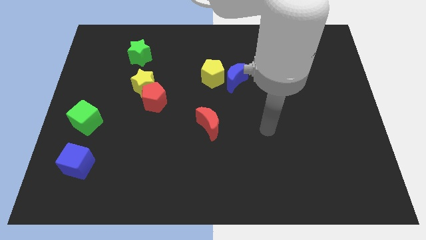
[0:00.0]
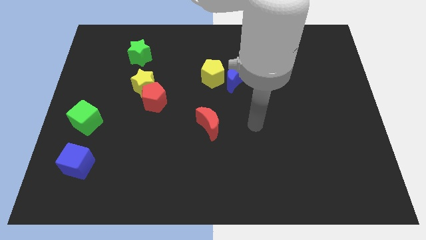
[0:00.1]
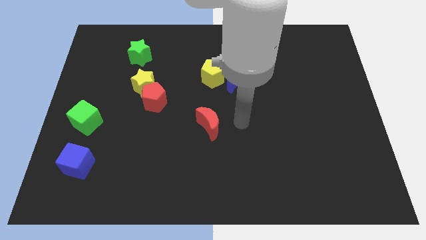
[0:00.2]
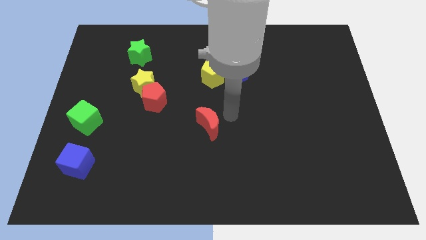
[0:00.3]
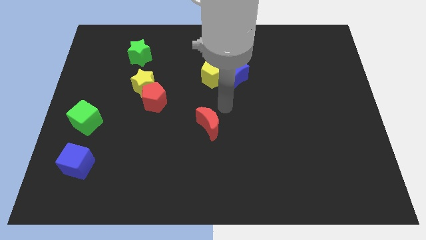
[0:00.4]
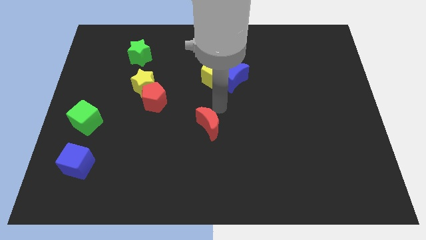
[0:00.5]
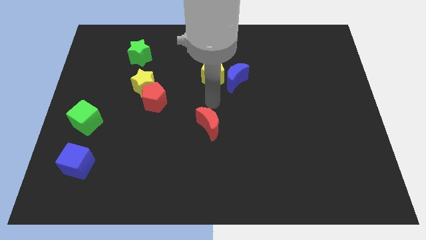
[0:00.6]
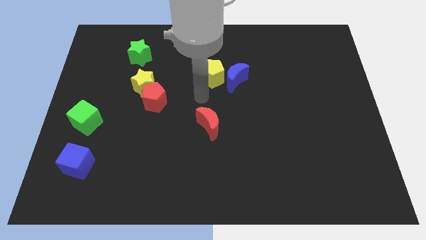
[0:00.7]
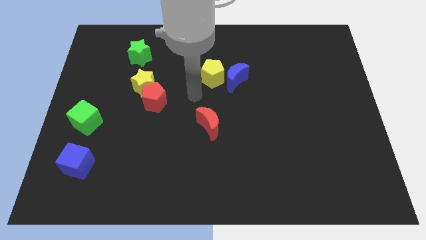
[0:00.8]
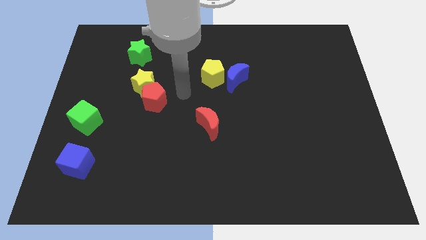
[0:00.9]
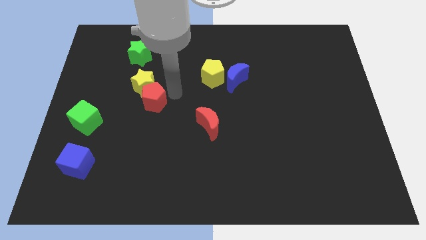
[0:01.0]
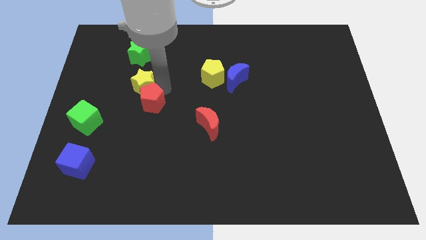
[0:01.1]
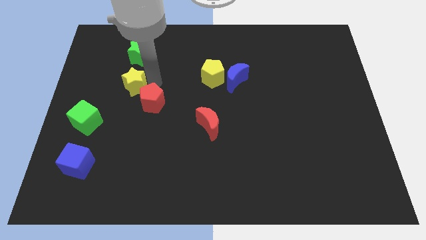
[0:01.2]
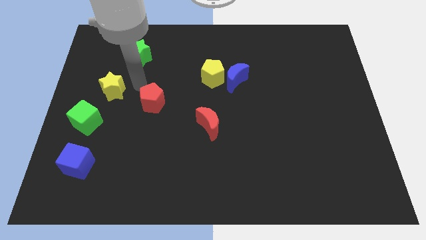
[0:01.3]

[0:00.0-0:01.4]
move the red pentagon away from the yellow star

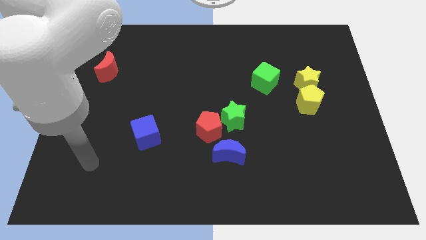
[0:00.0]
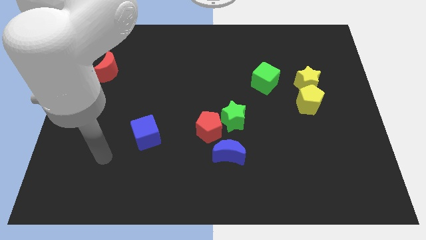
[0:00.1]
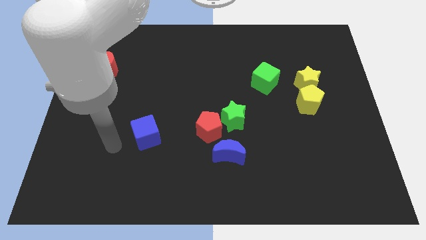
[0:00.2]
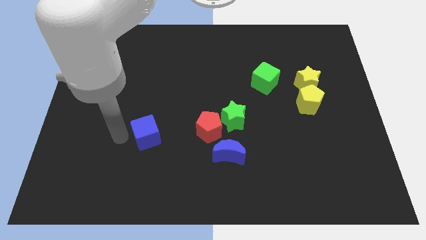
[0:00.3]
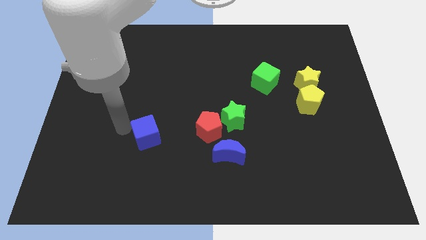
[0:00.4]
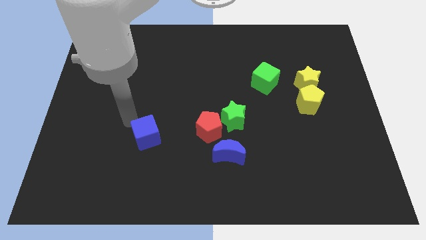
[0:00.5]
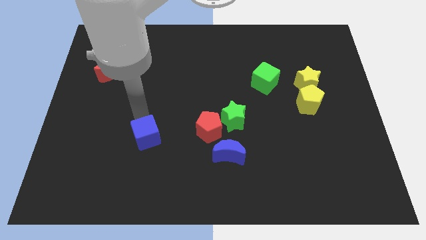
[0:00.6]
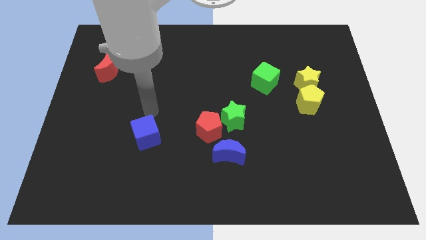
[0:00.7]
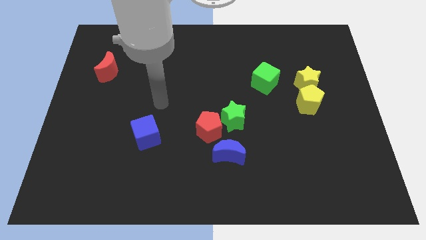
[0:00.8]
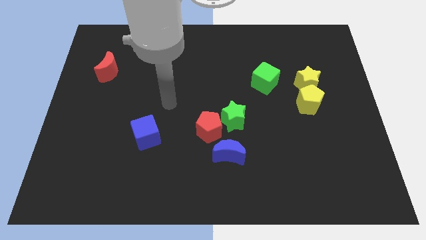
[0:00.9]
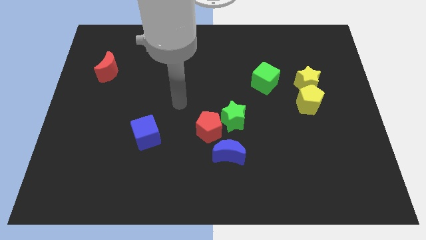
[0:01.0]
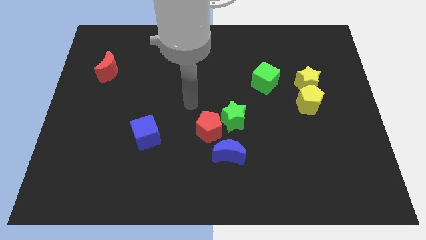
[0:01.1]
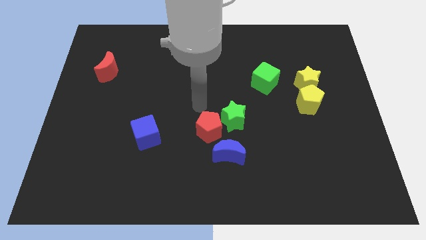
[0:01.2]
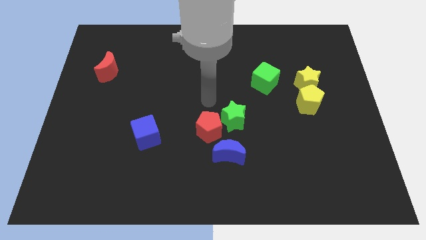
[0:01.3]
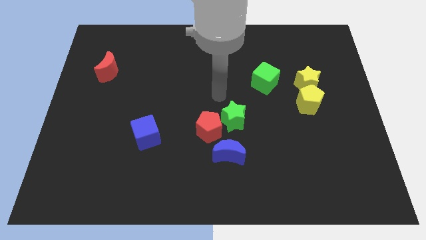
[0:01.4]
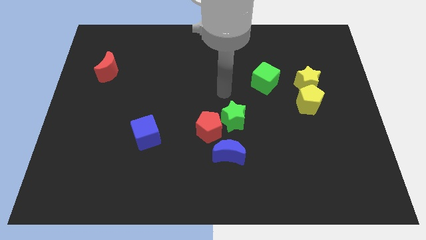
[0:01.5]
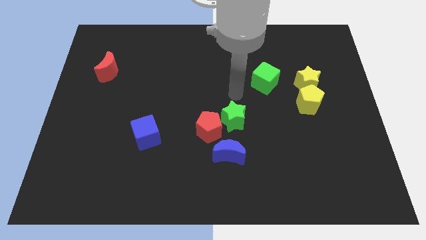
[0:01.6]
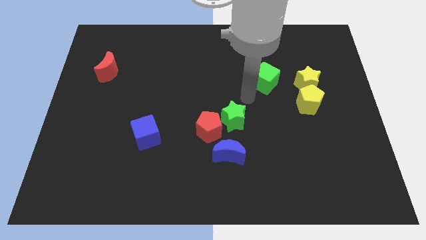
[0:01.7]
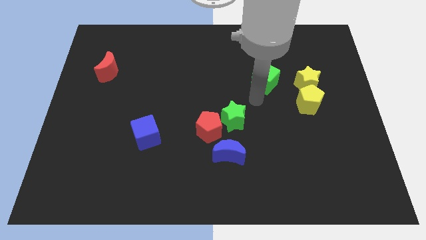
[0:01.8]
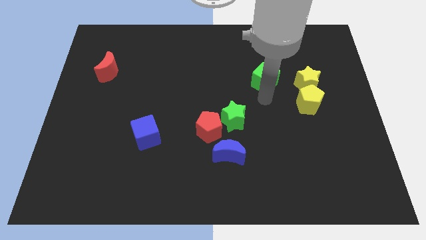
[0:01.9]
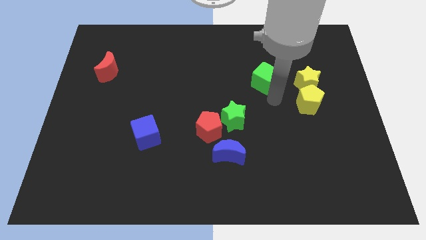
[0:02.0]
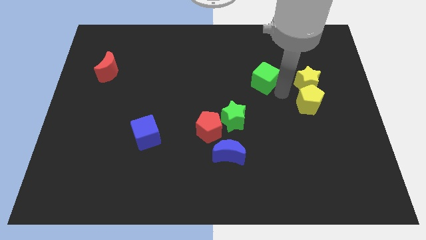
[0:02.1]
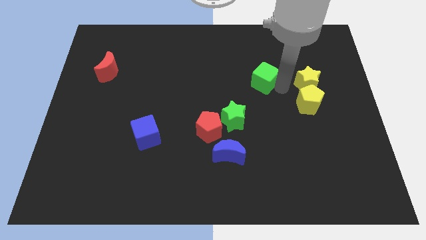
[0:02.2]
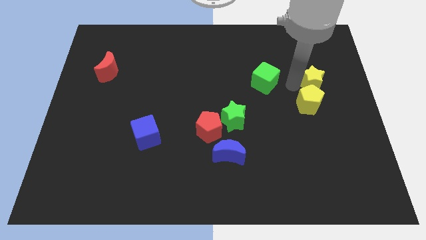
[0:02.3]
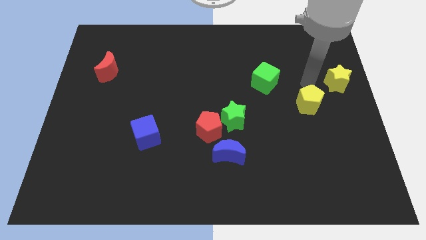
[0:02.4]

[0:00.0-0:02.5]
pull the yellow pentagon apart from the yellow star

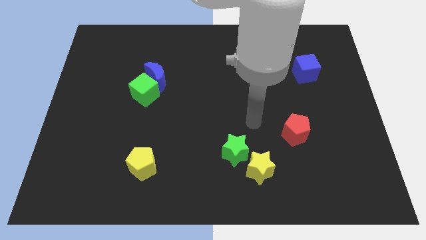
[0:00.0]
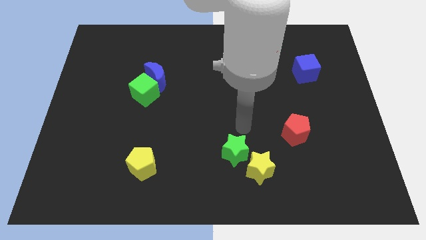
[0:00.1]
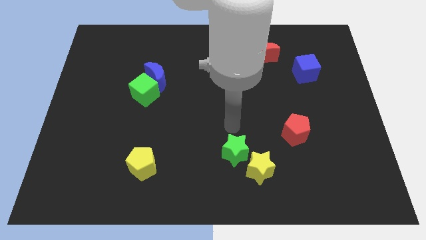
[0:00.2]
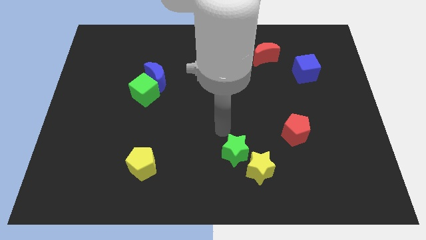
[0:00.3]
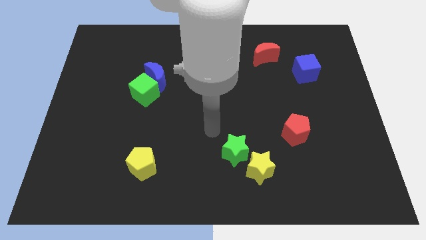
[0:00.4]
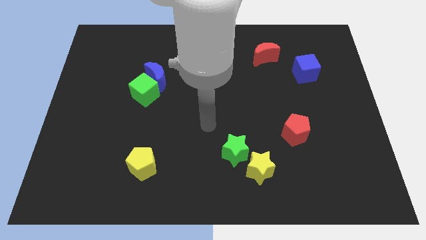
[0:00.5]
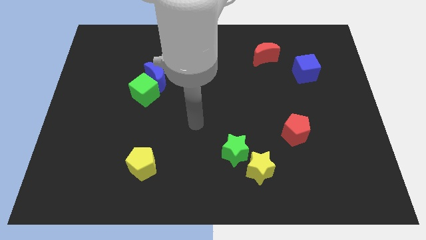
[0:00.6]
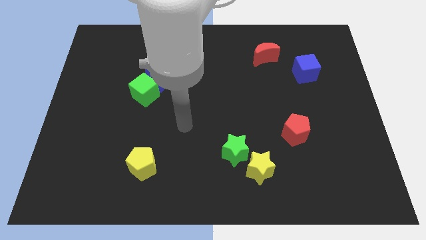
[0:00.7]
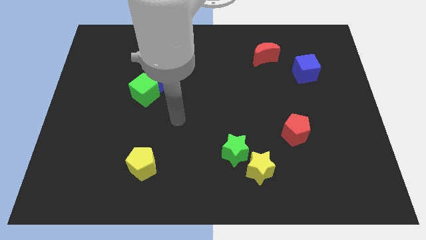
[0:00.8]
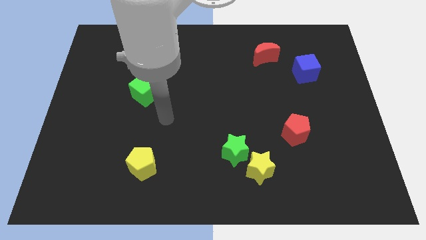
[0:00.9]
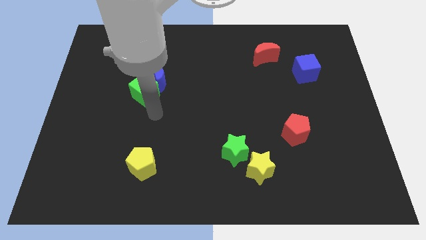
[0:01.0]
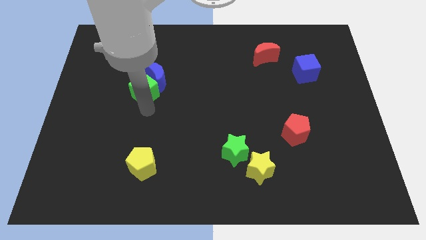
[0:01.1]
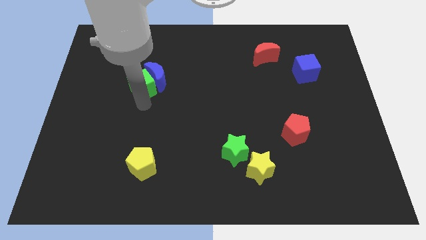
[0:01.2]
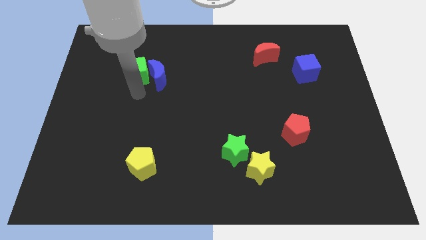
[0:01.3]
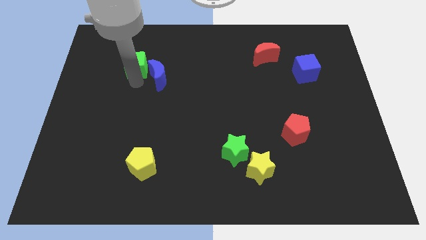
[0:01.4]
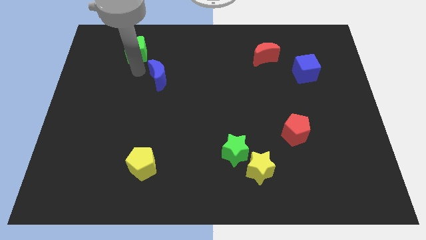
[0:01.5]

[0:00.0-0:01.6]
move the blue moon away from the green cube

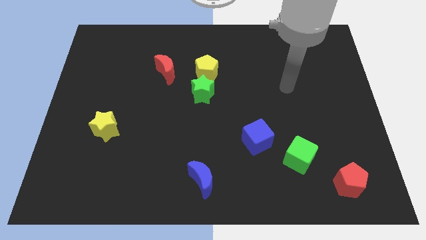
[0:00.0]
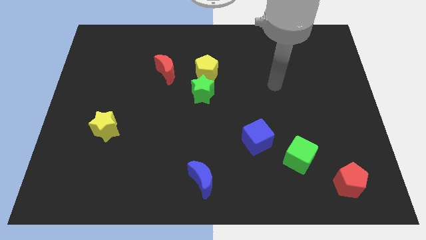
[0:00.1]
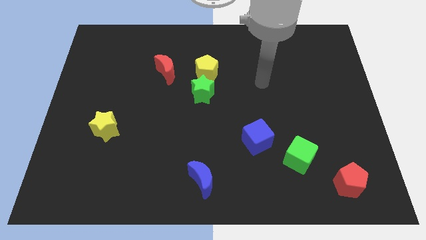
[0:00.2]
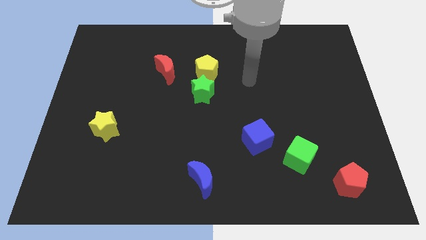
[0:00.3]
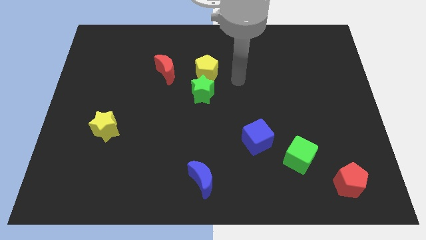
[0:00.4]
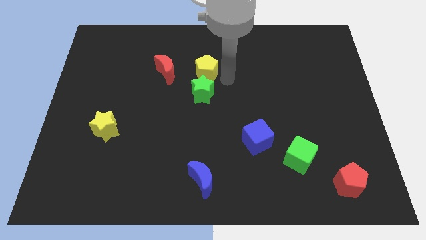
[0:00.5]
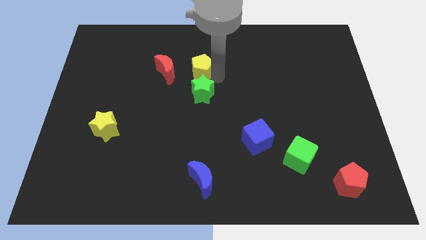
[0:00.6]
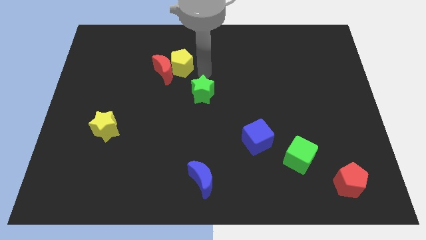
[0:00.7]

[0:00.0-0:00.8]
separate the green star from the yellow pentagon

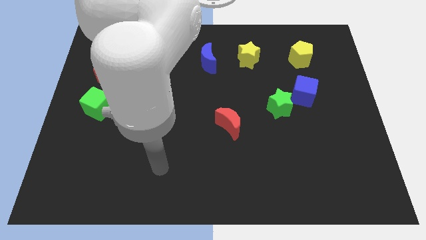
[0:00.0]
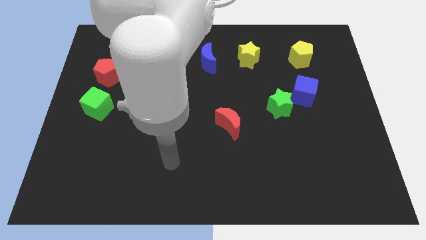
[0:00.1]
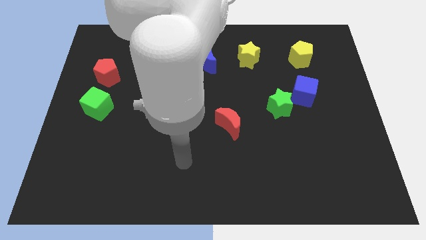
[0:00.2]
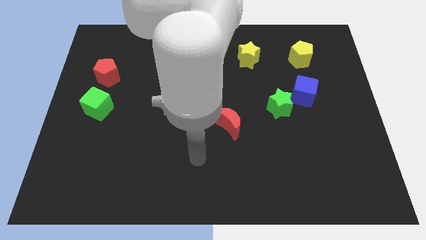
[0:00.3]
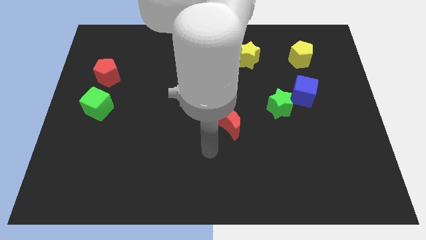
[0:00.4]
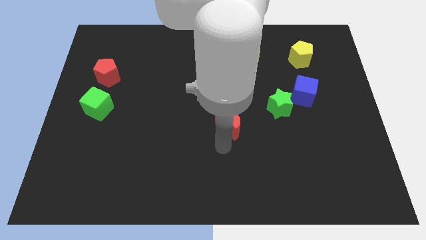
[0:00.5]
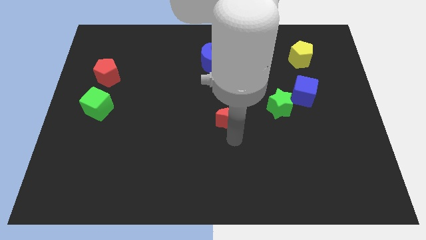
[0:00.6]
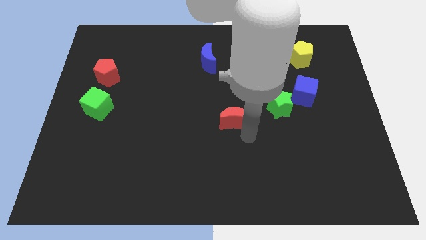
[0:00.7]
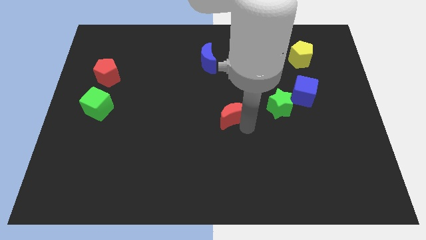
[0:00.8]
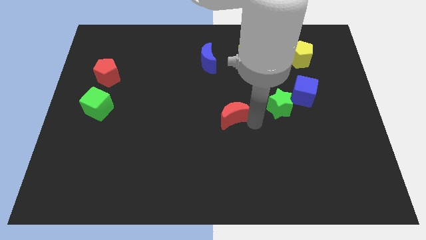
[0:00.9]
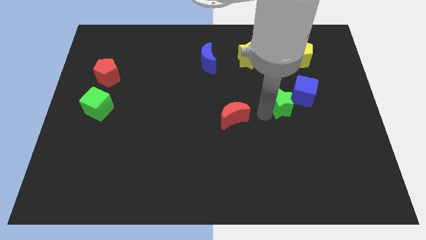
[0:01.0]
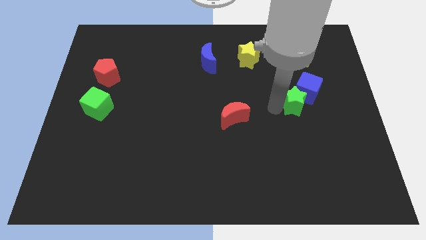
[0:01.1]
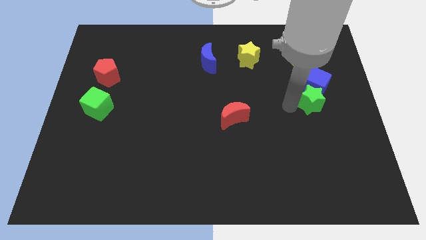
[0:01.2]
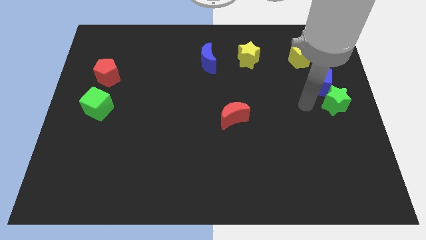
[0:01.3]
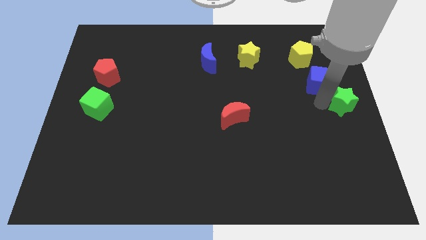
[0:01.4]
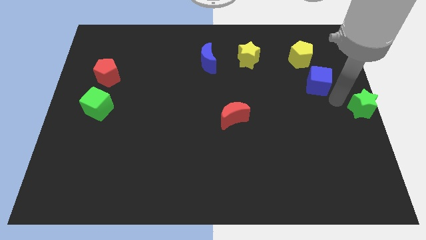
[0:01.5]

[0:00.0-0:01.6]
pull the blue cube apart from the green star

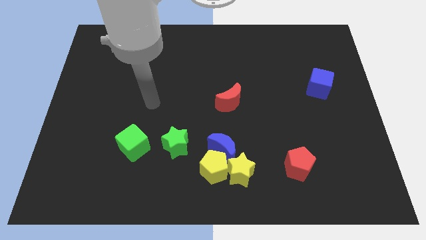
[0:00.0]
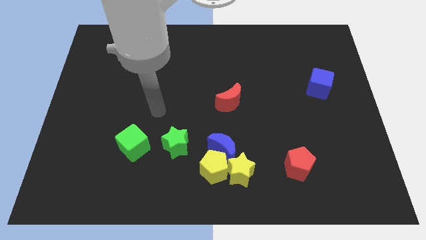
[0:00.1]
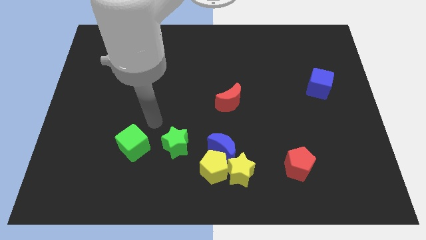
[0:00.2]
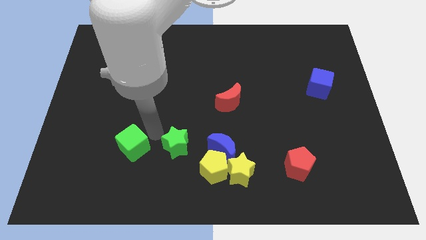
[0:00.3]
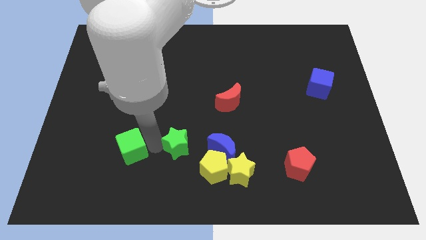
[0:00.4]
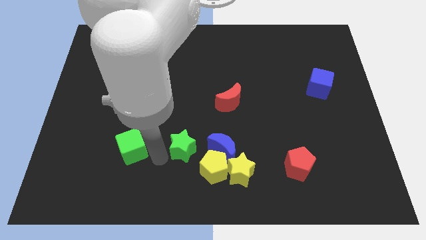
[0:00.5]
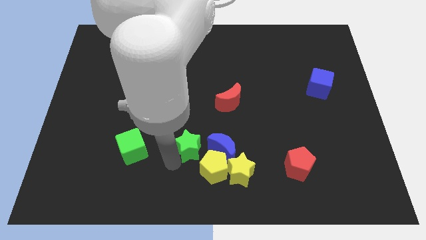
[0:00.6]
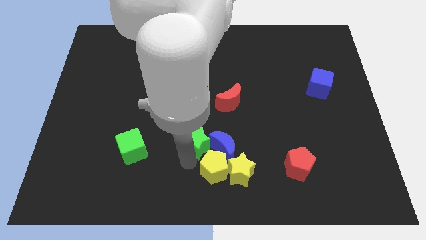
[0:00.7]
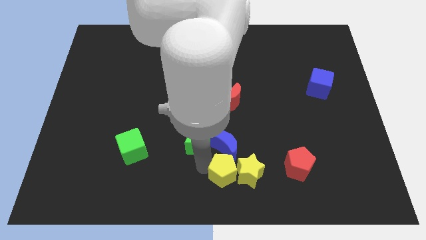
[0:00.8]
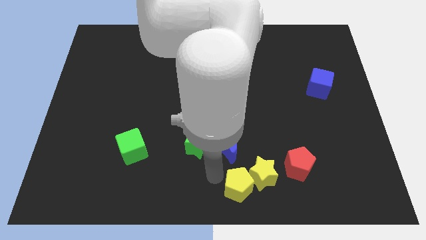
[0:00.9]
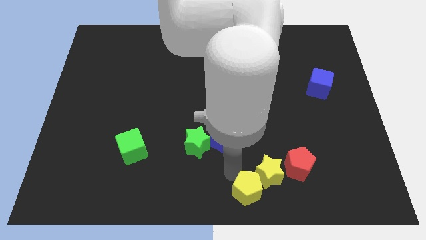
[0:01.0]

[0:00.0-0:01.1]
move the blue moon away from the yellow pentagon and yellow star

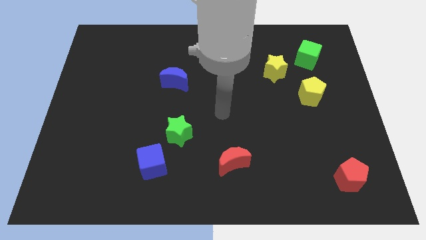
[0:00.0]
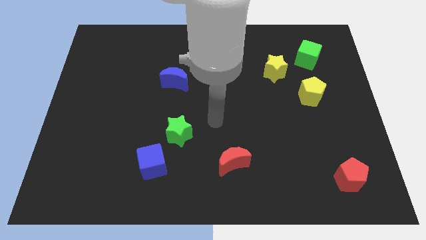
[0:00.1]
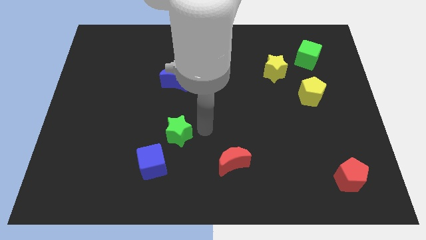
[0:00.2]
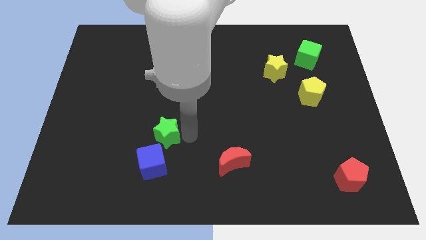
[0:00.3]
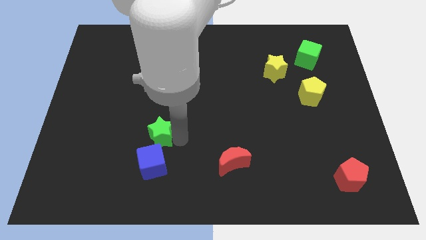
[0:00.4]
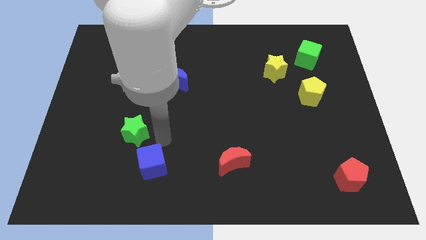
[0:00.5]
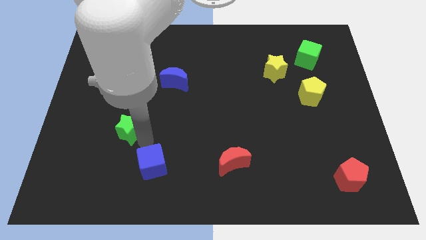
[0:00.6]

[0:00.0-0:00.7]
separate the blue cube from the green star
